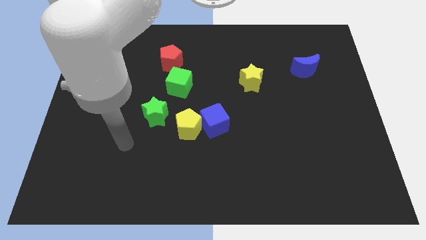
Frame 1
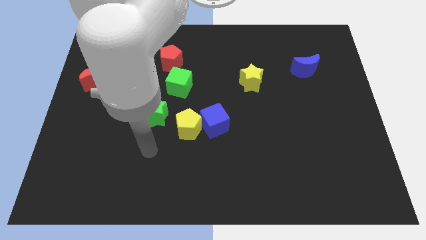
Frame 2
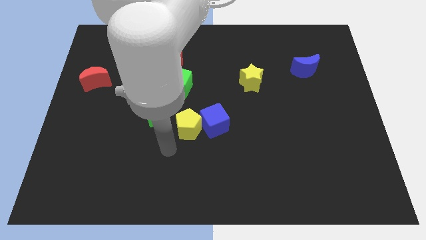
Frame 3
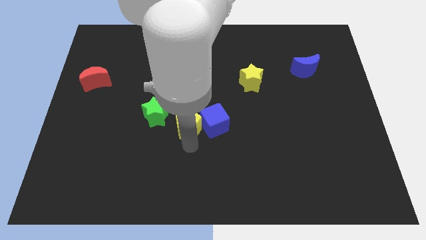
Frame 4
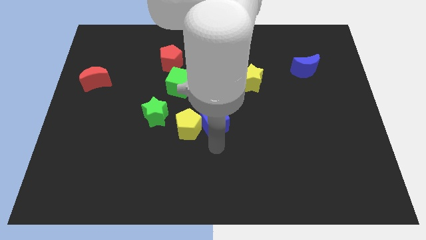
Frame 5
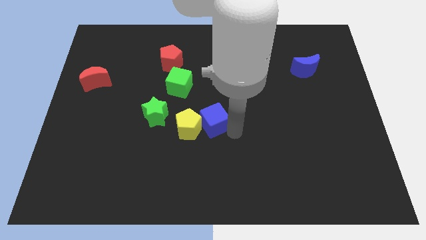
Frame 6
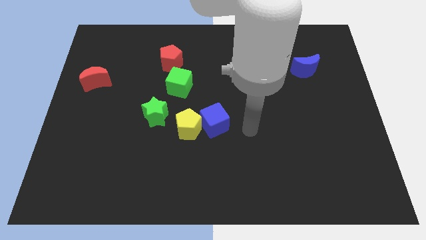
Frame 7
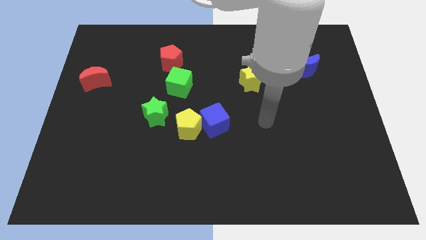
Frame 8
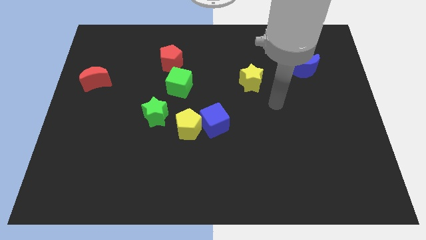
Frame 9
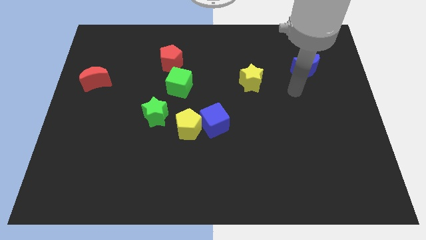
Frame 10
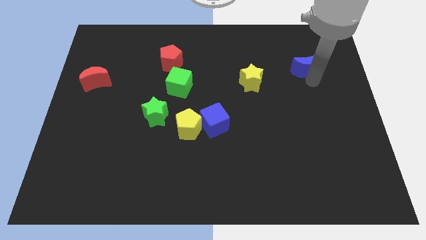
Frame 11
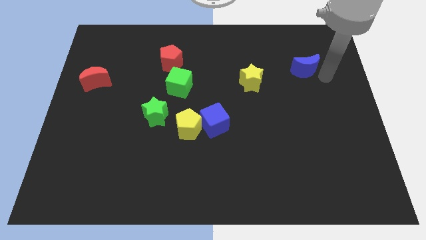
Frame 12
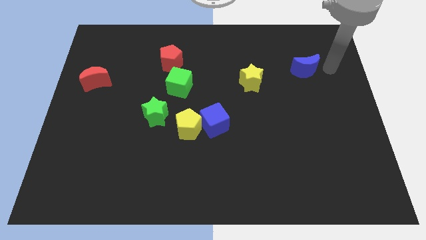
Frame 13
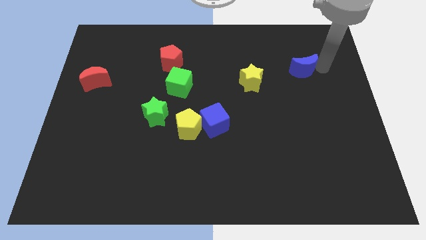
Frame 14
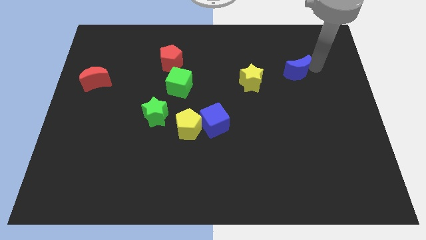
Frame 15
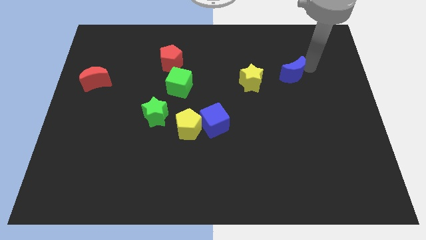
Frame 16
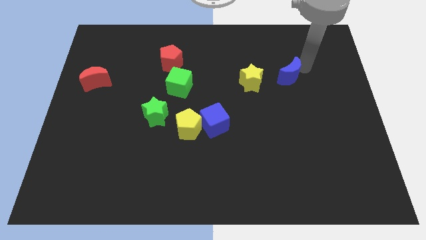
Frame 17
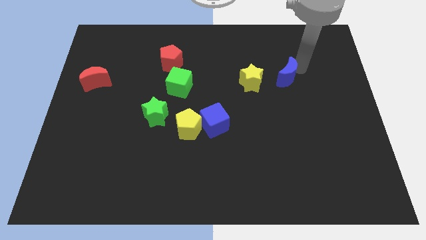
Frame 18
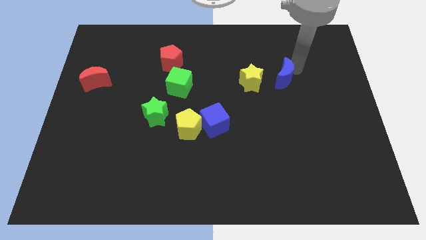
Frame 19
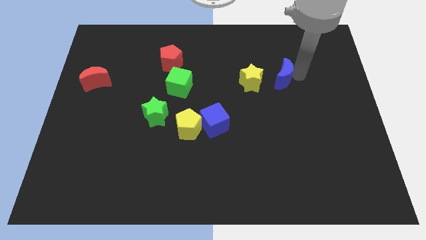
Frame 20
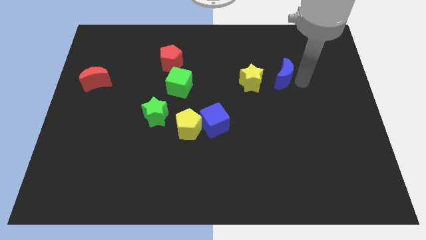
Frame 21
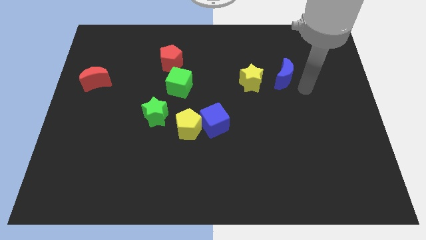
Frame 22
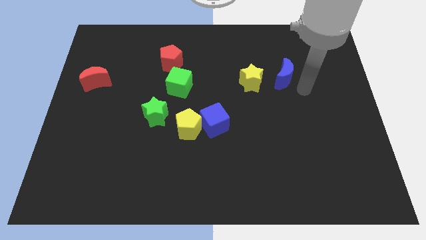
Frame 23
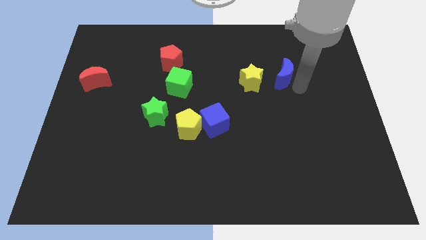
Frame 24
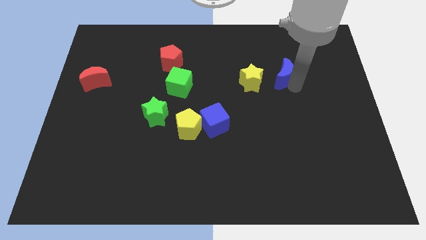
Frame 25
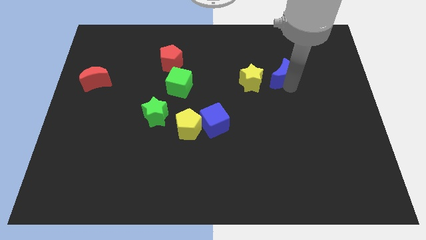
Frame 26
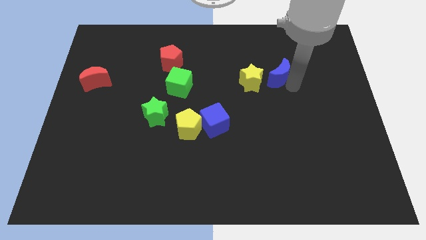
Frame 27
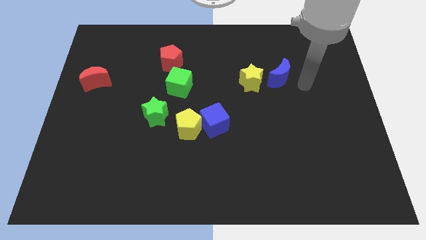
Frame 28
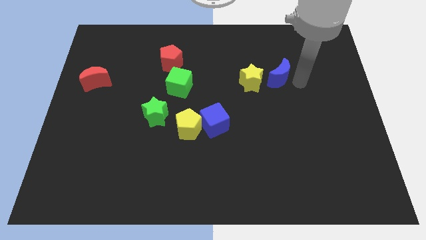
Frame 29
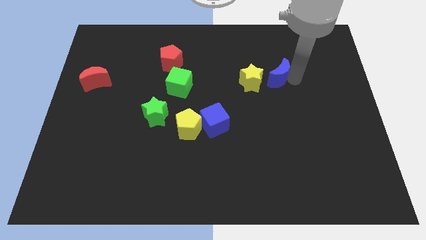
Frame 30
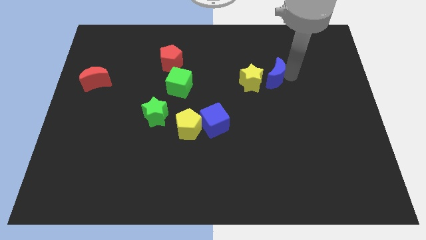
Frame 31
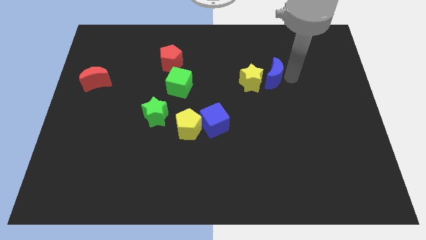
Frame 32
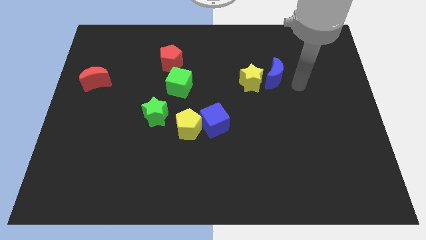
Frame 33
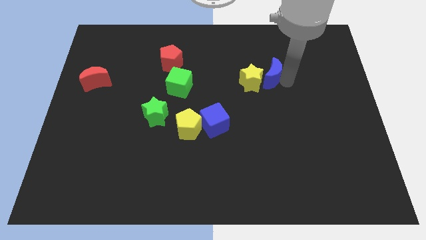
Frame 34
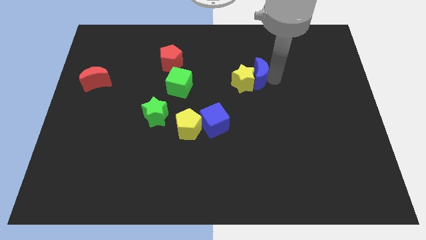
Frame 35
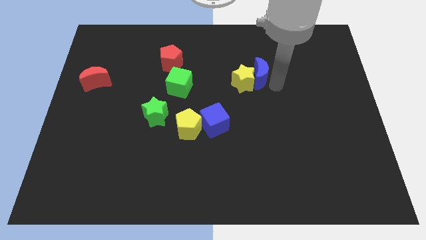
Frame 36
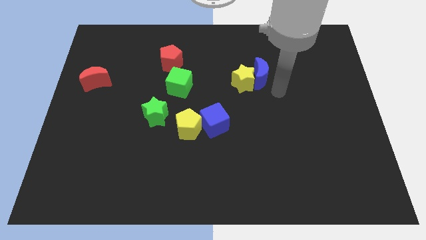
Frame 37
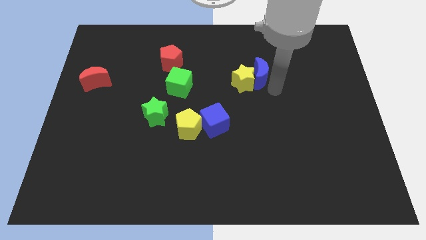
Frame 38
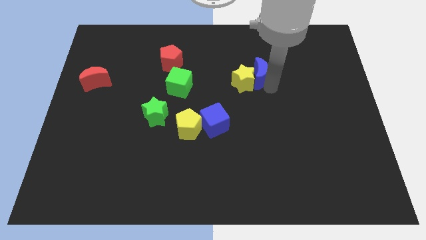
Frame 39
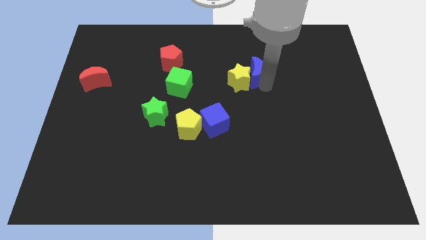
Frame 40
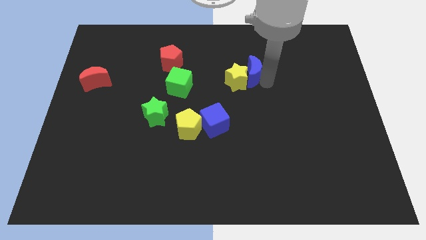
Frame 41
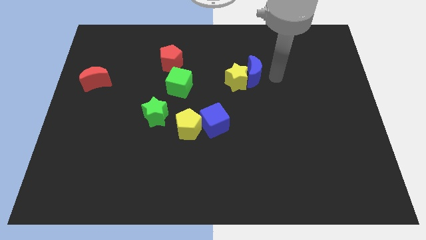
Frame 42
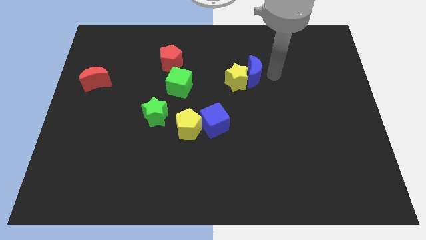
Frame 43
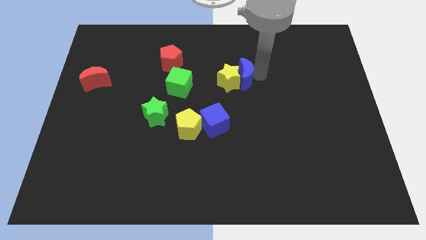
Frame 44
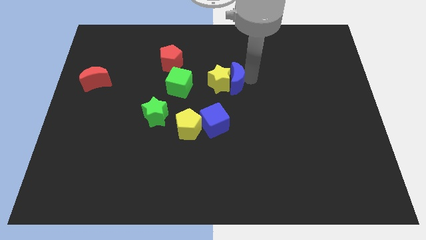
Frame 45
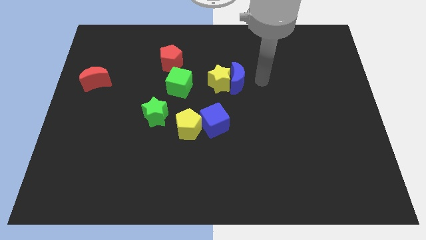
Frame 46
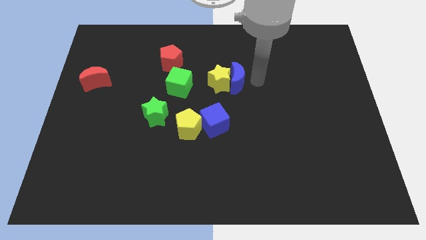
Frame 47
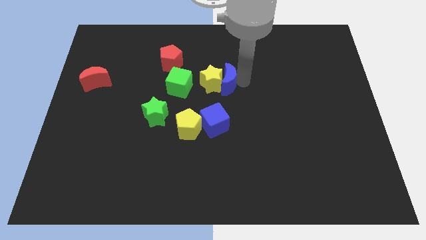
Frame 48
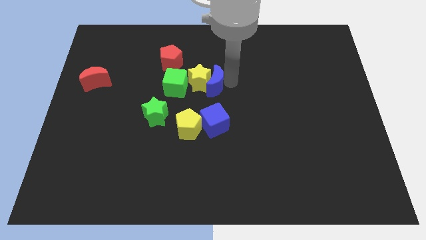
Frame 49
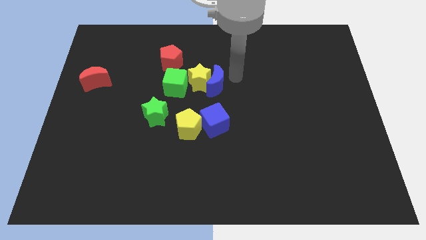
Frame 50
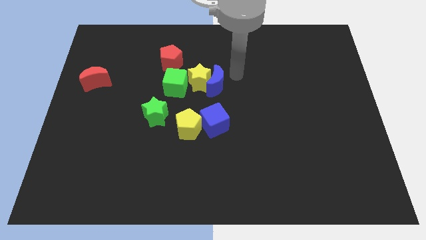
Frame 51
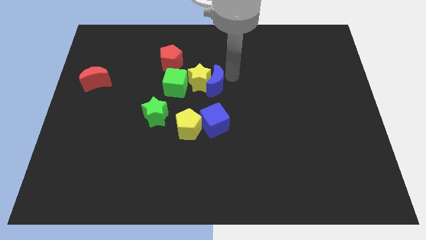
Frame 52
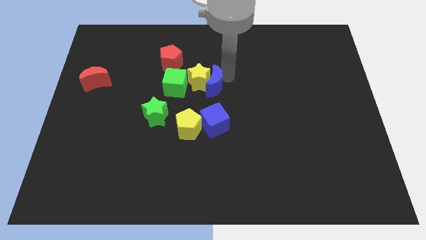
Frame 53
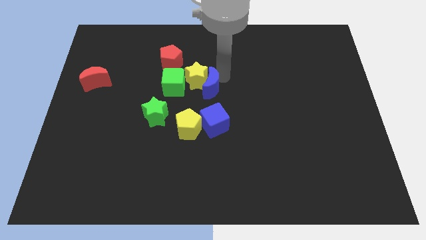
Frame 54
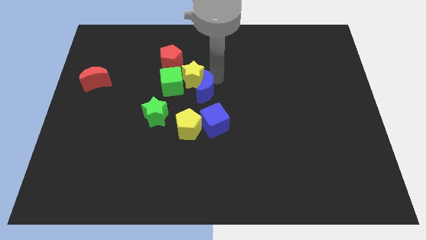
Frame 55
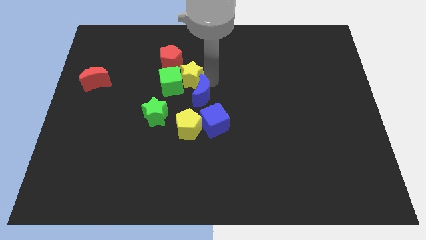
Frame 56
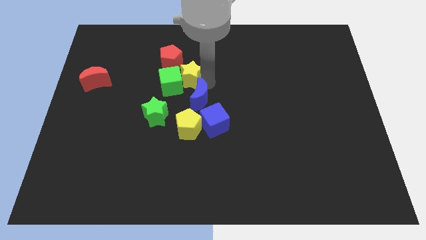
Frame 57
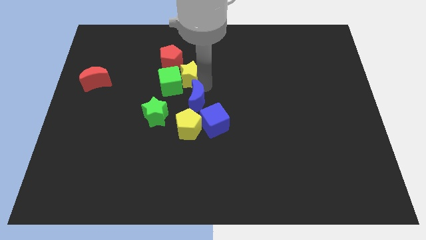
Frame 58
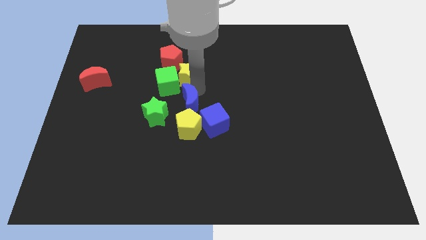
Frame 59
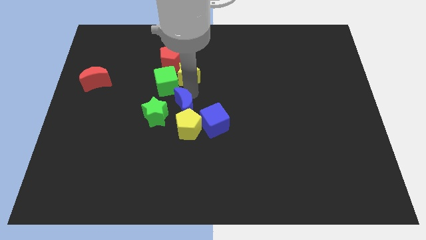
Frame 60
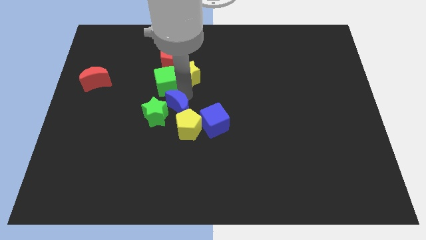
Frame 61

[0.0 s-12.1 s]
put the blue moon to the green star

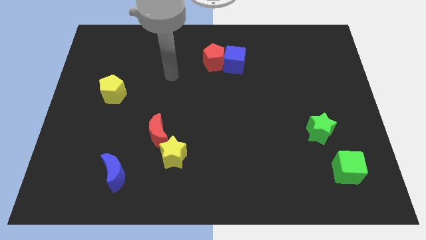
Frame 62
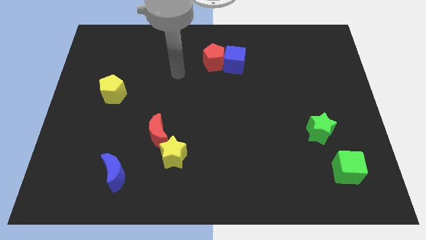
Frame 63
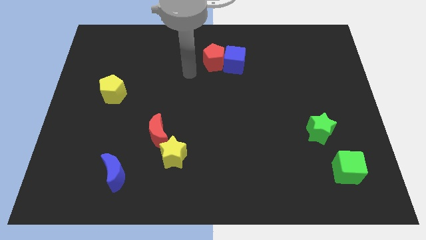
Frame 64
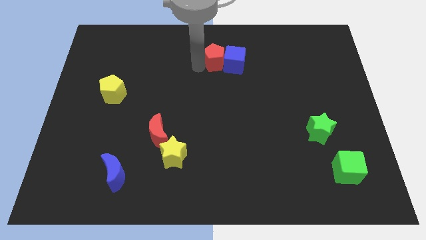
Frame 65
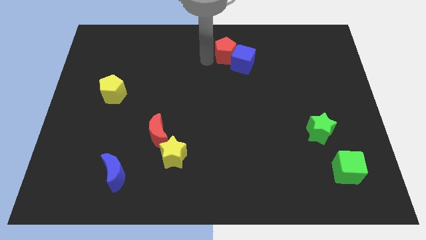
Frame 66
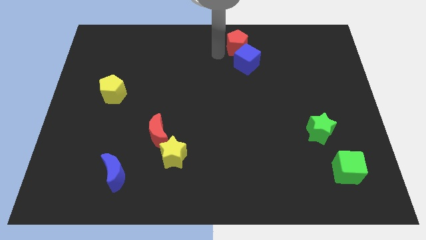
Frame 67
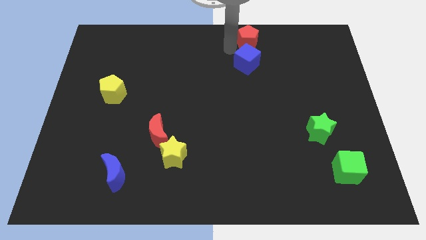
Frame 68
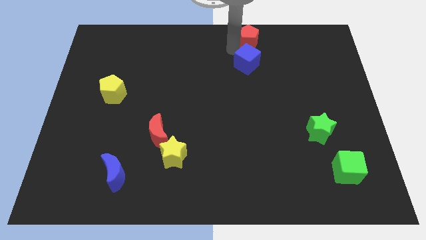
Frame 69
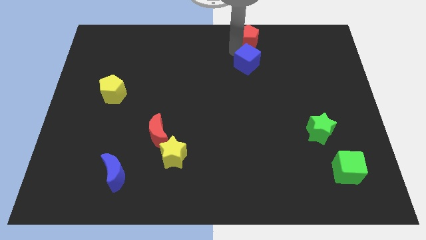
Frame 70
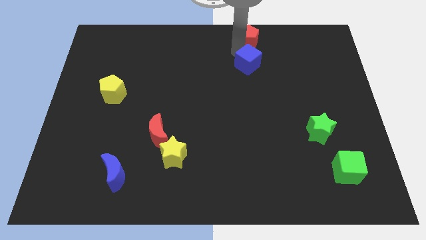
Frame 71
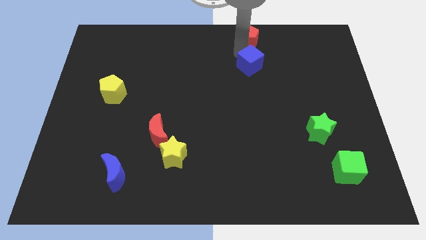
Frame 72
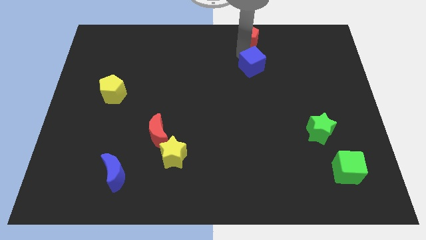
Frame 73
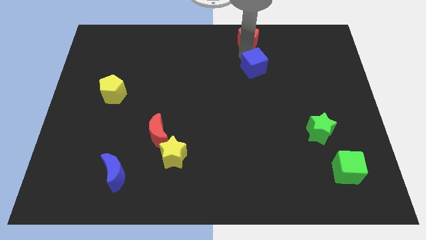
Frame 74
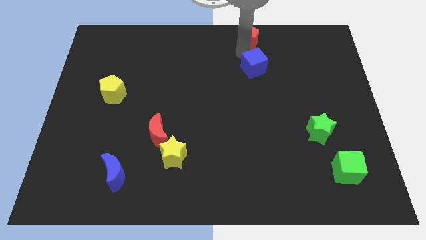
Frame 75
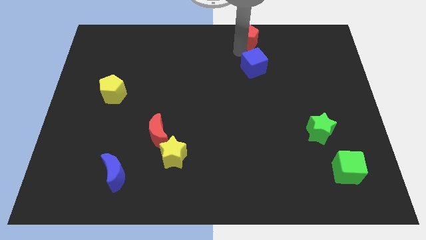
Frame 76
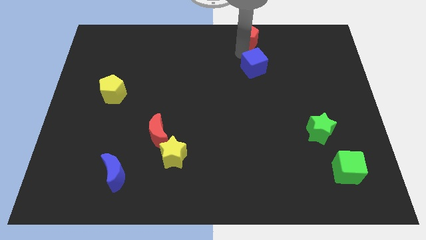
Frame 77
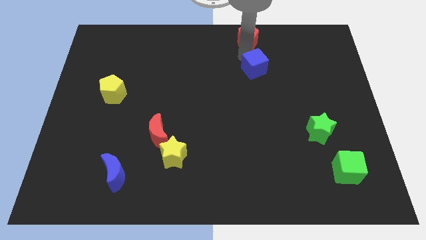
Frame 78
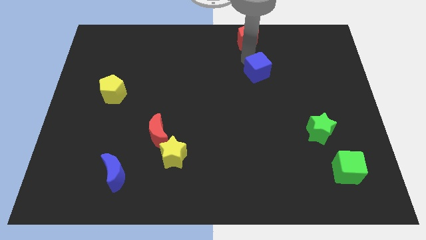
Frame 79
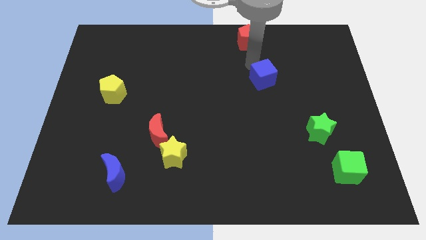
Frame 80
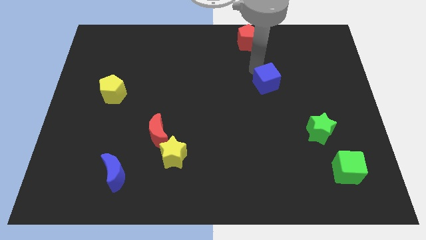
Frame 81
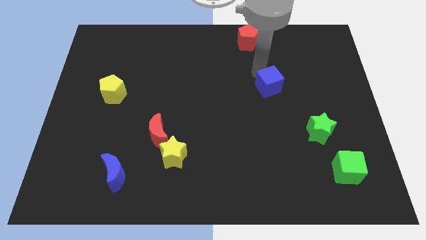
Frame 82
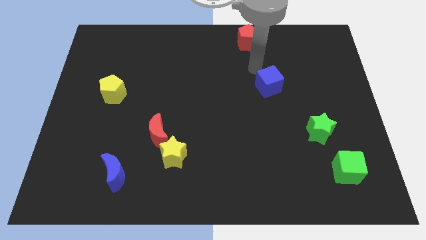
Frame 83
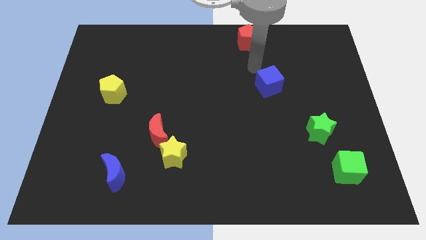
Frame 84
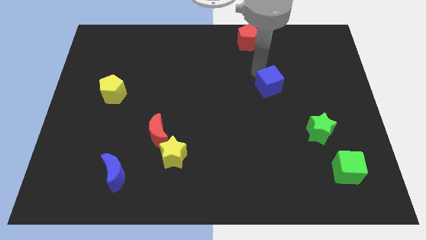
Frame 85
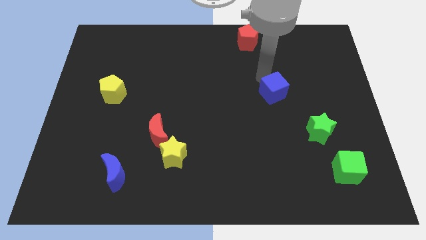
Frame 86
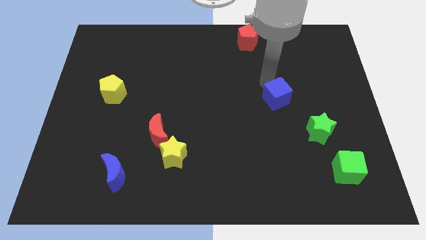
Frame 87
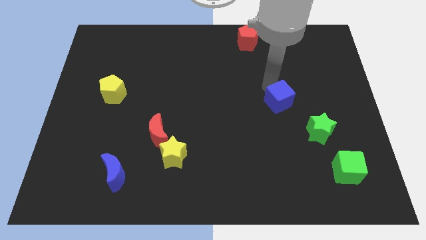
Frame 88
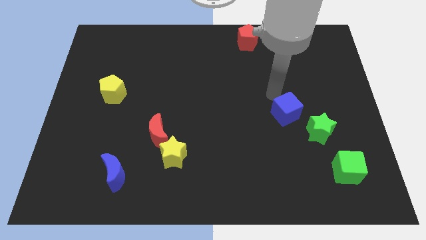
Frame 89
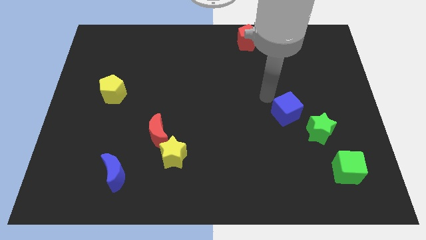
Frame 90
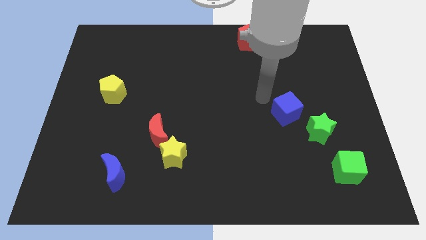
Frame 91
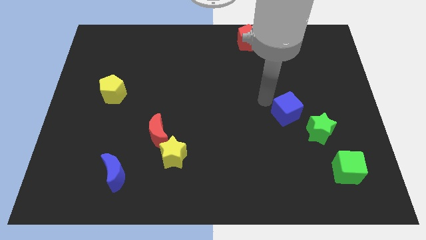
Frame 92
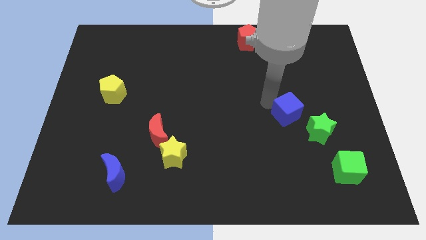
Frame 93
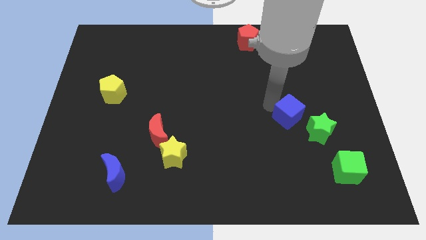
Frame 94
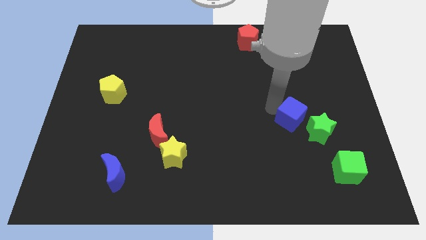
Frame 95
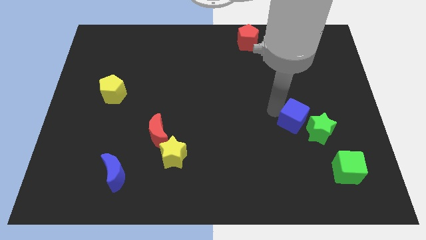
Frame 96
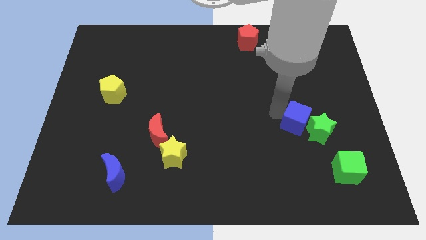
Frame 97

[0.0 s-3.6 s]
slide the blue cube next to the green star
